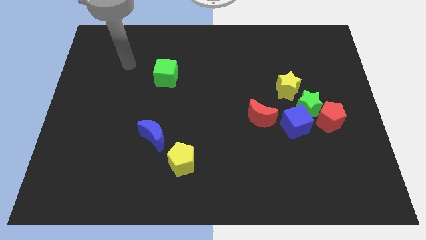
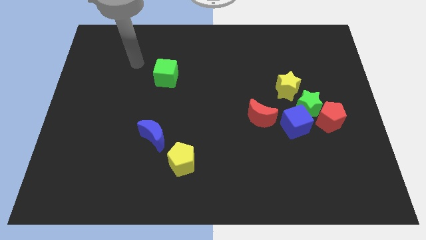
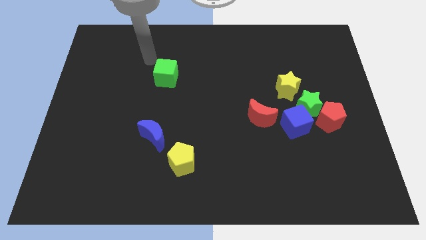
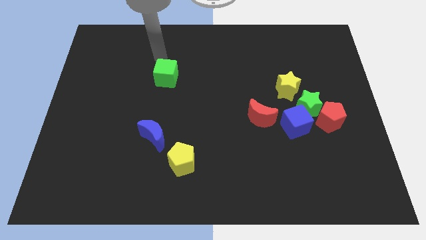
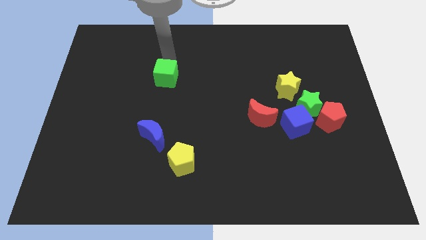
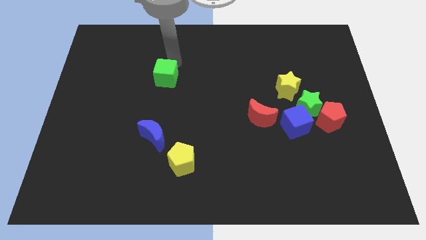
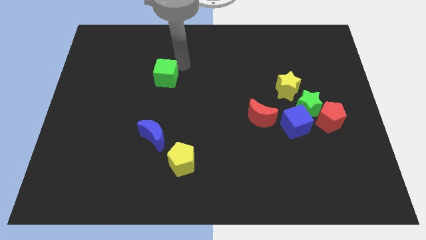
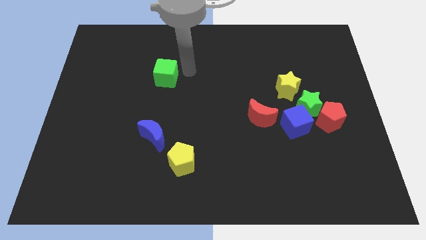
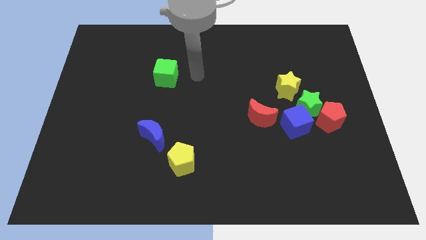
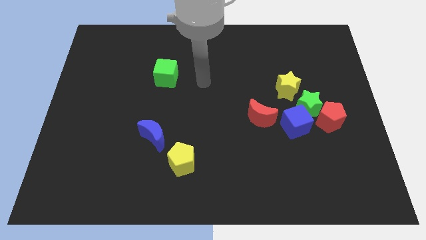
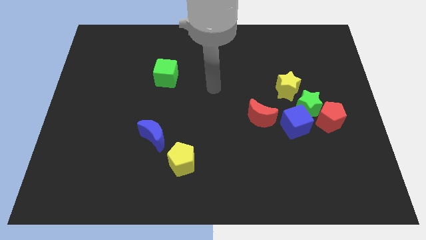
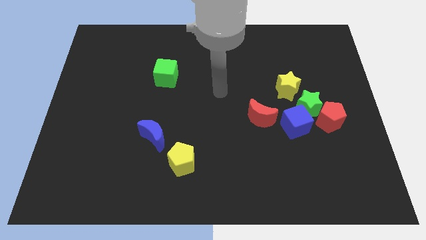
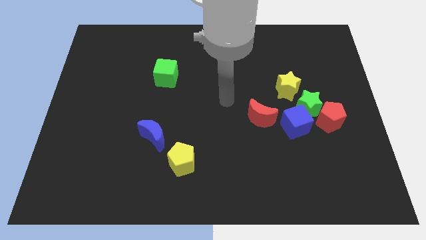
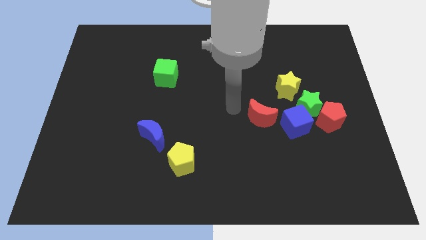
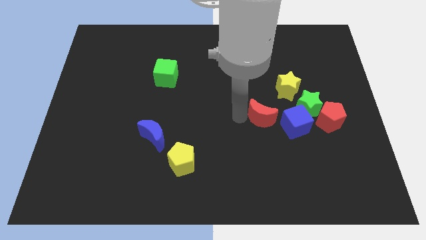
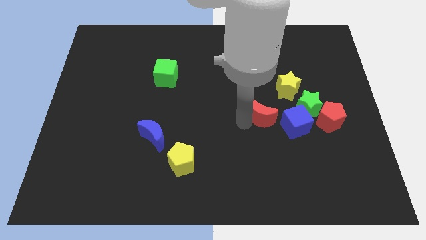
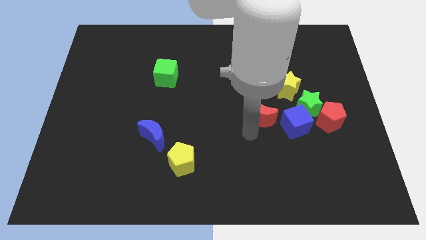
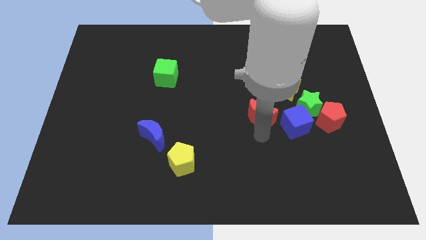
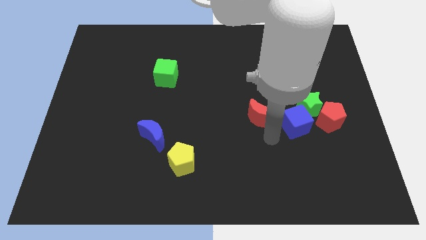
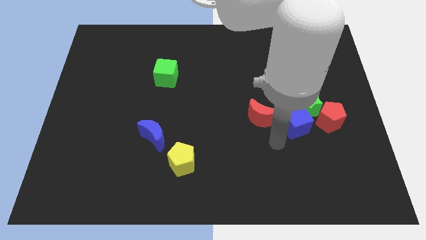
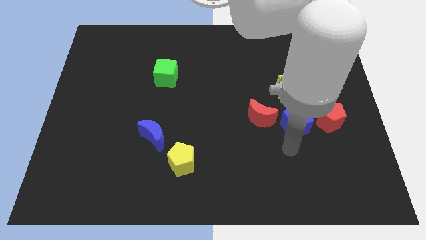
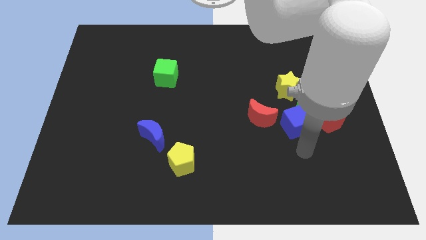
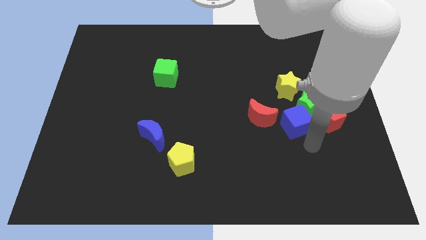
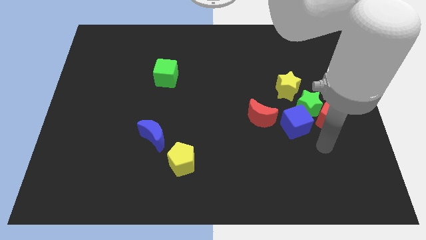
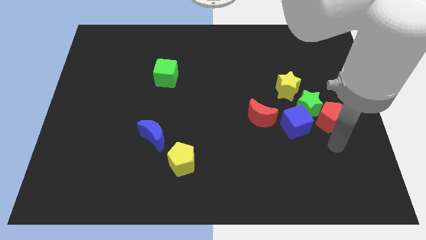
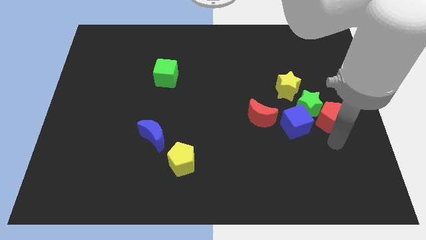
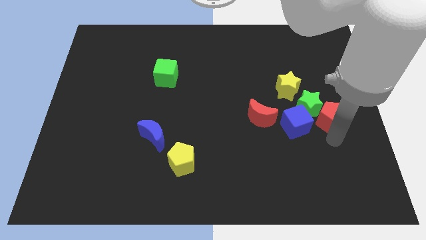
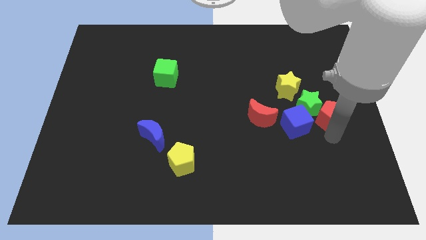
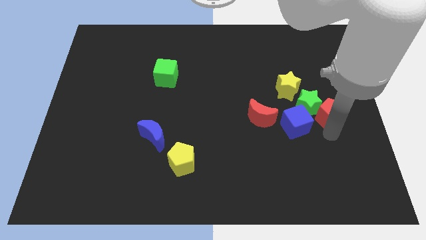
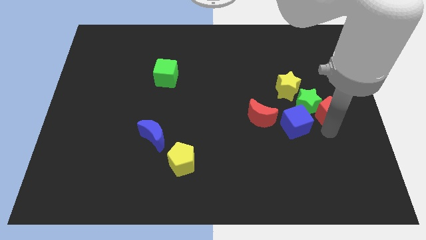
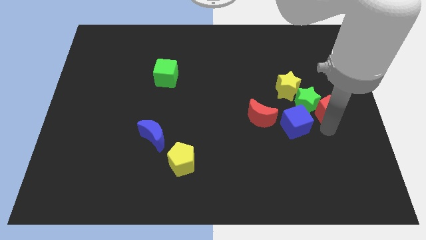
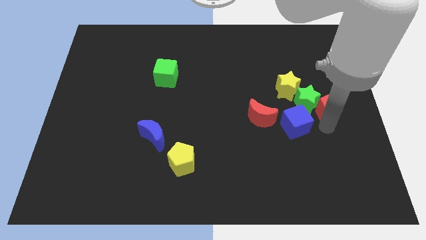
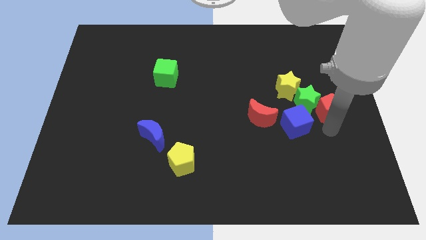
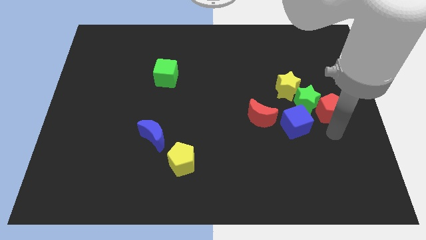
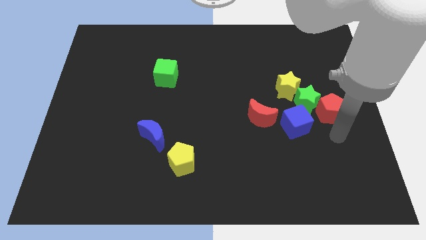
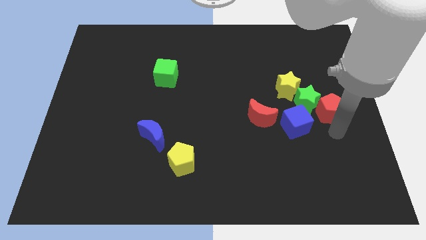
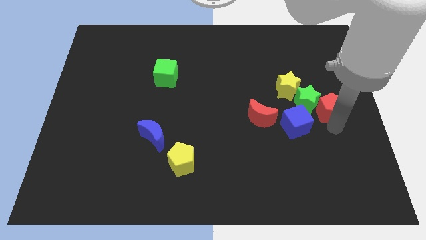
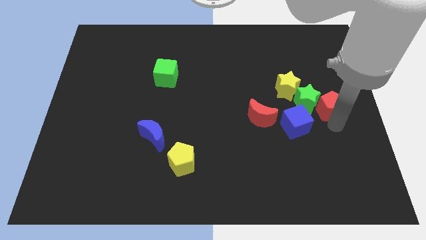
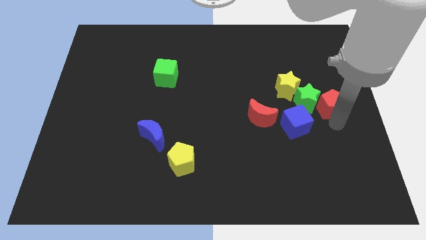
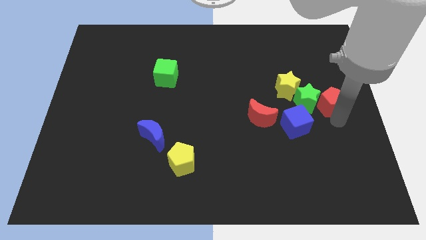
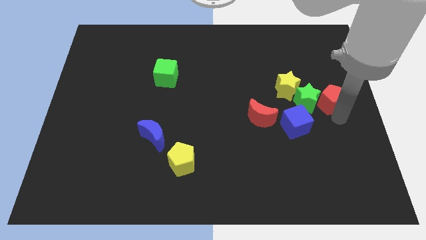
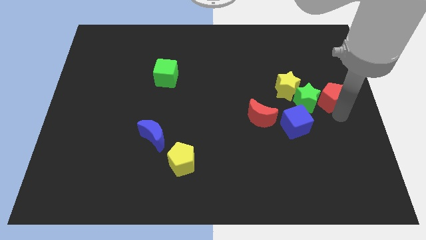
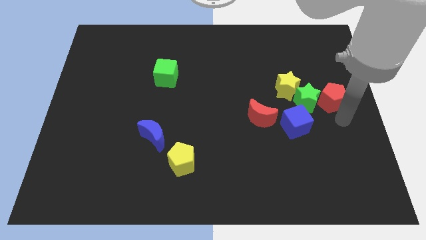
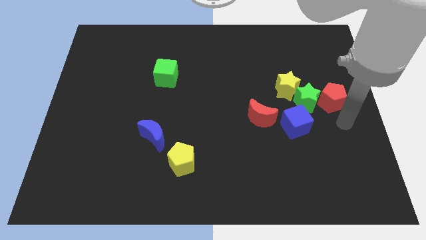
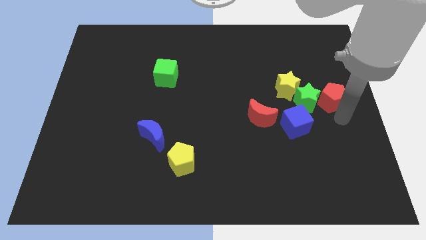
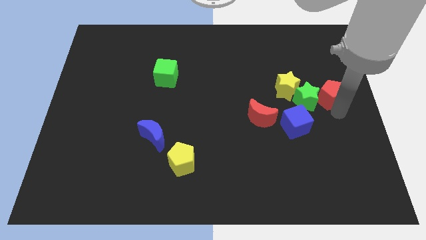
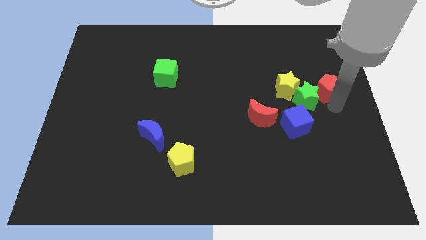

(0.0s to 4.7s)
move the red pentagon up a bit

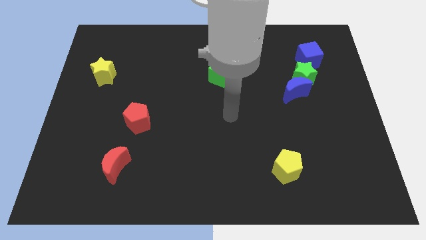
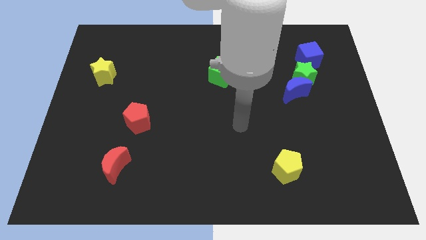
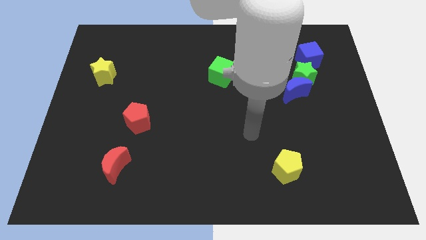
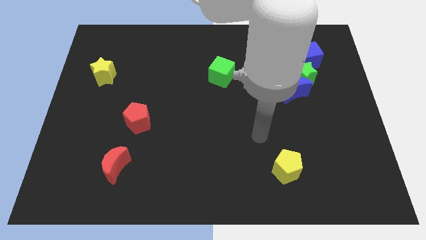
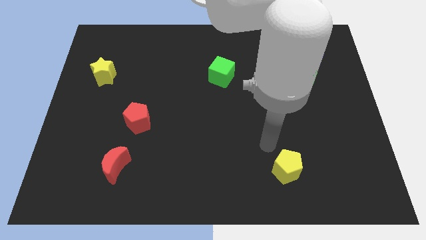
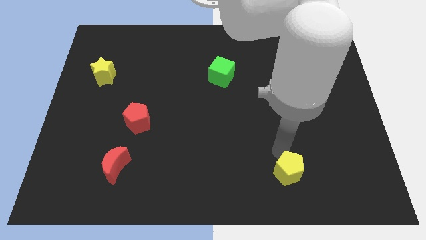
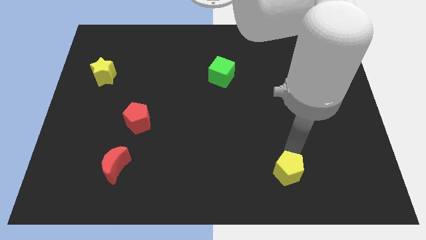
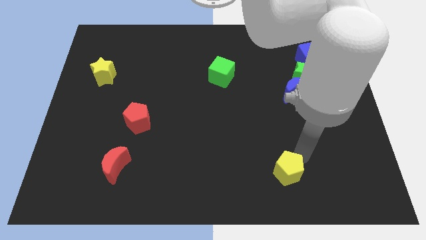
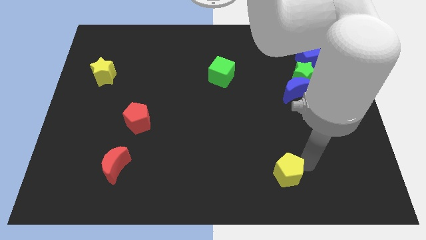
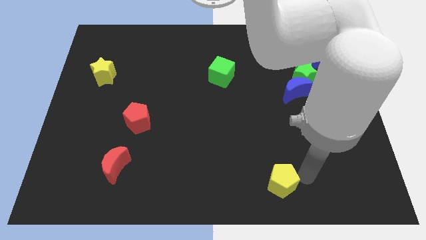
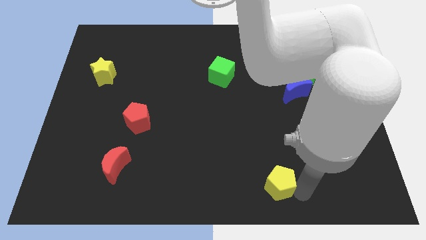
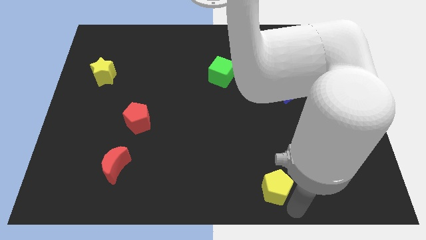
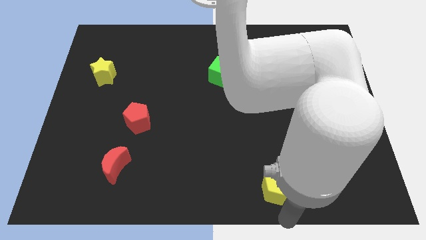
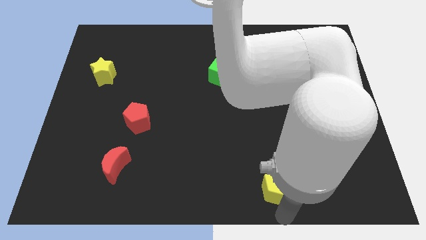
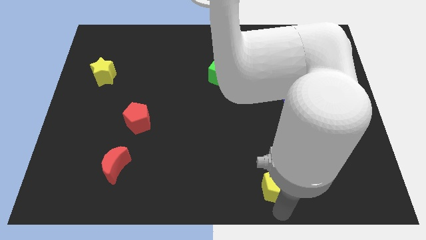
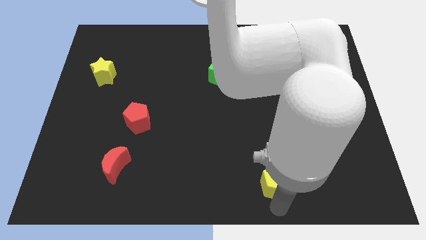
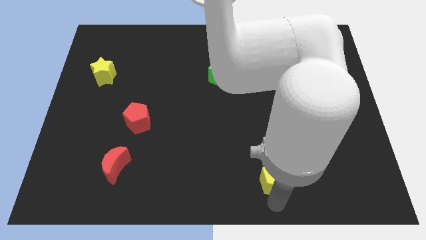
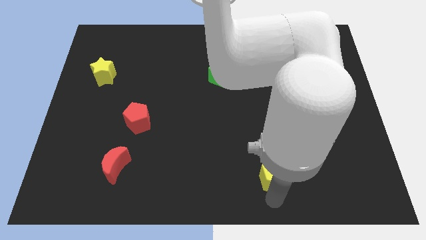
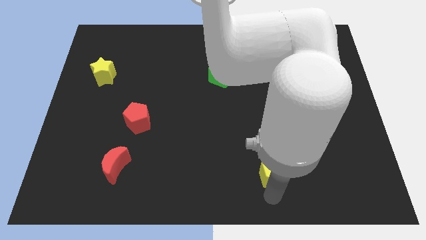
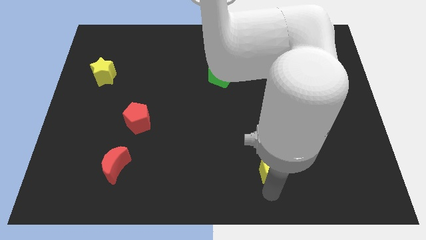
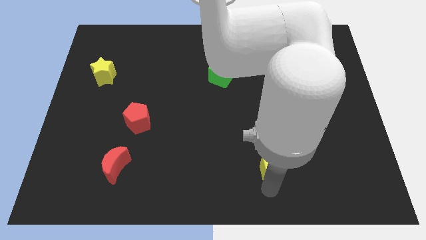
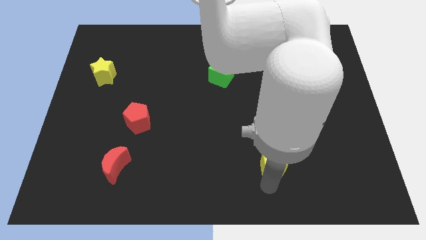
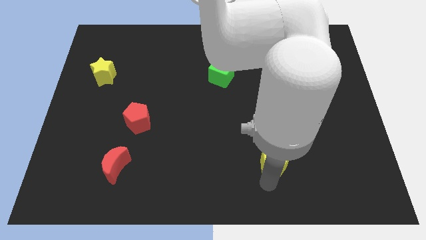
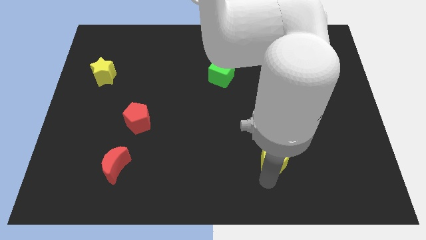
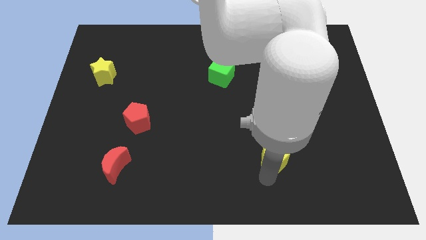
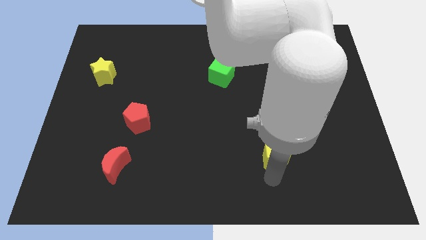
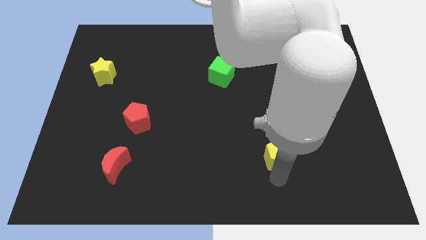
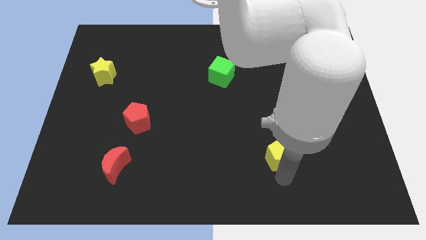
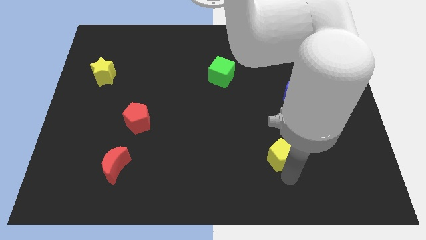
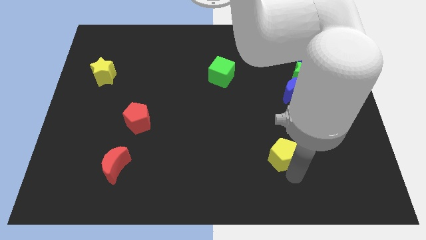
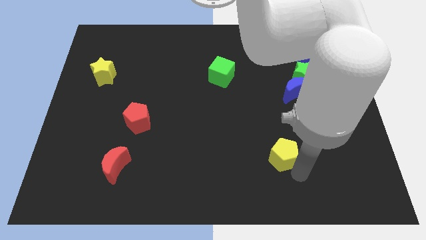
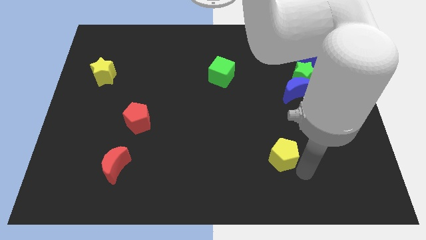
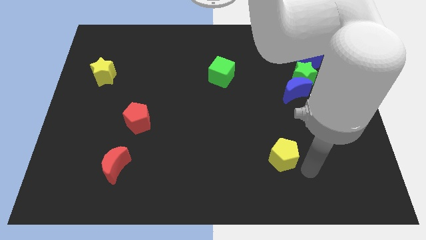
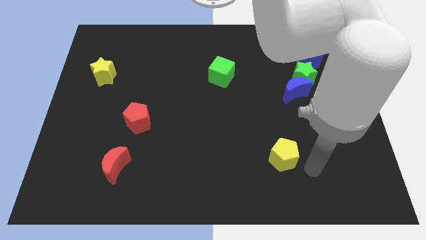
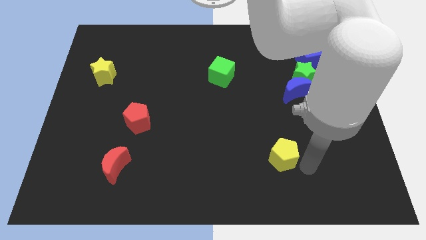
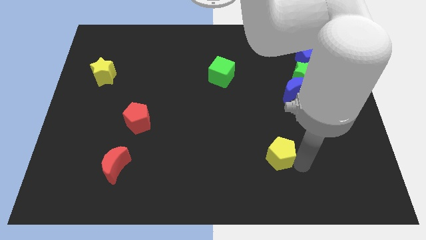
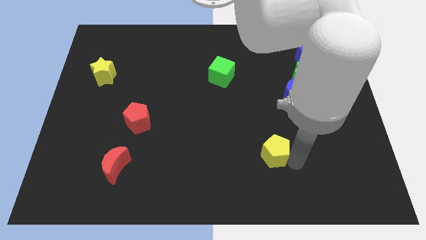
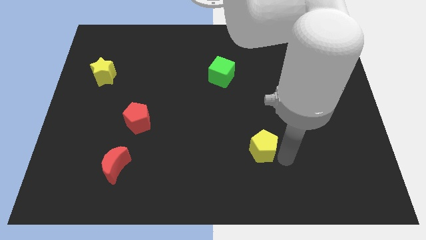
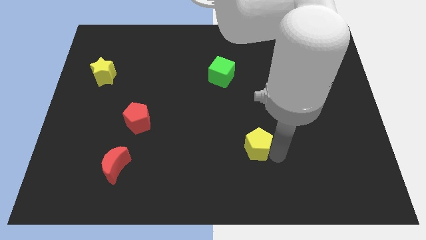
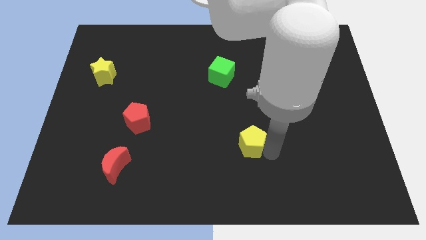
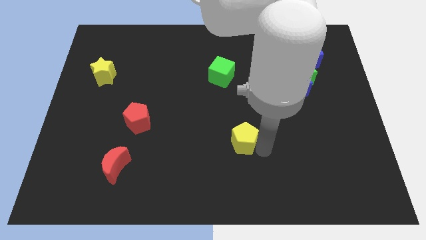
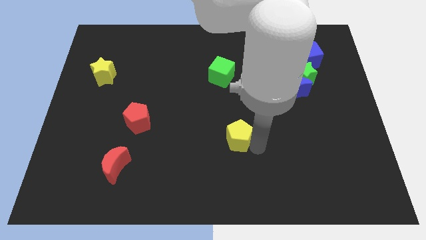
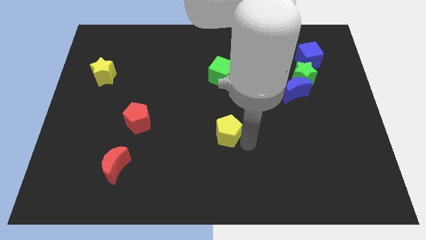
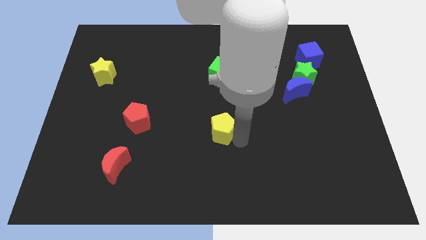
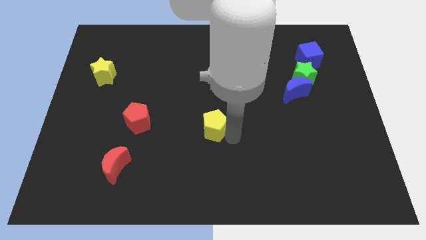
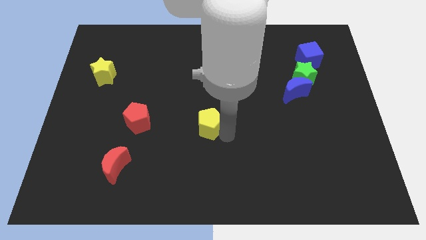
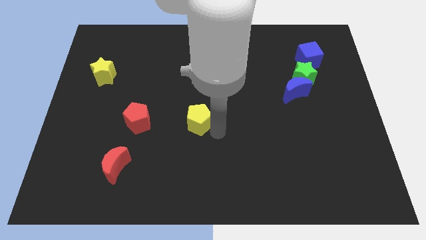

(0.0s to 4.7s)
push the yellow pentagon diagonally upwards and left
